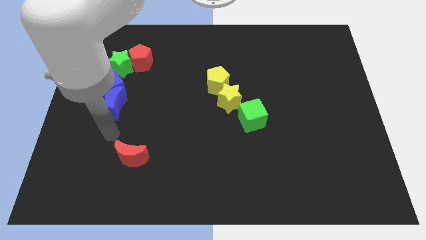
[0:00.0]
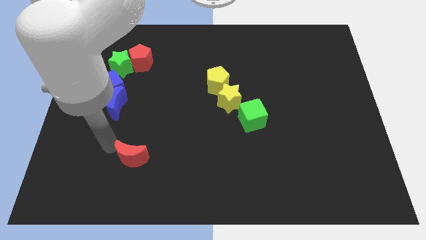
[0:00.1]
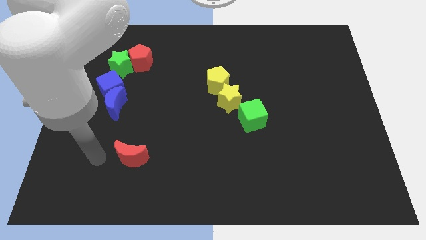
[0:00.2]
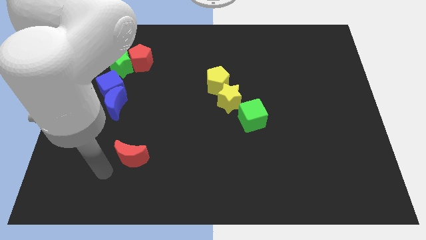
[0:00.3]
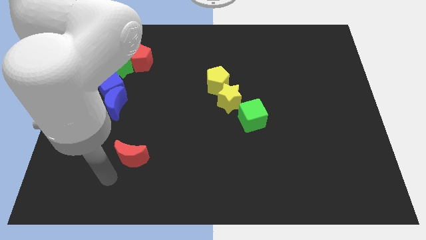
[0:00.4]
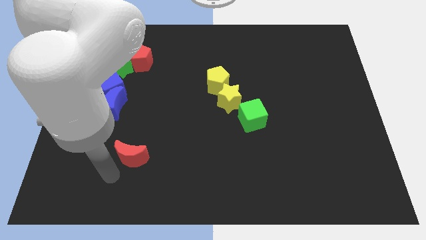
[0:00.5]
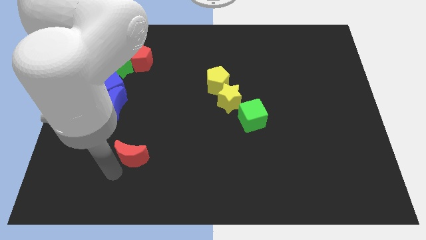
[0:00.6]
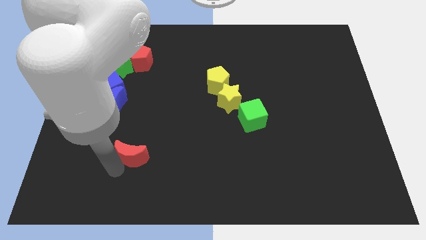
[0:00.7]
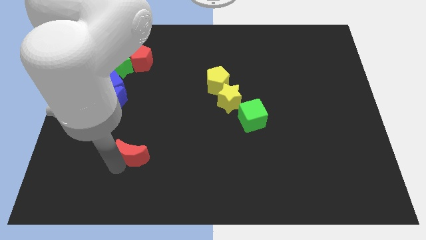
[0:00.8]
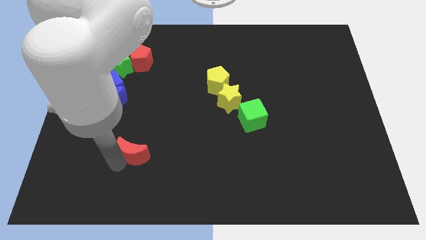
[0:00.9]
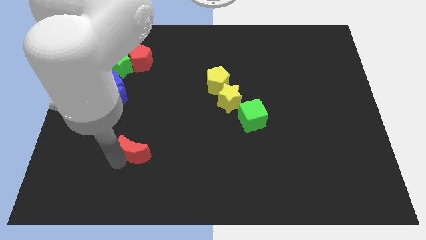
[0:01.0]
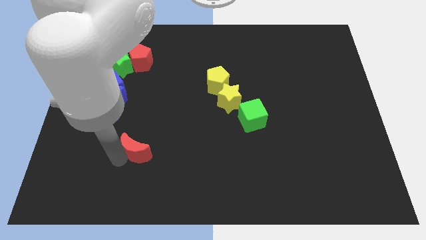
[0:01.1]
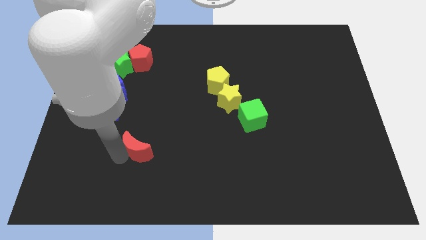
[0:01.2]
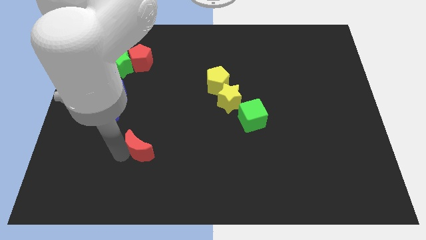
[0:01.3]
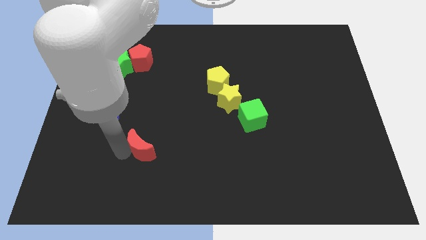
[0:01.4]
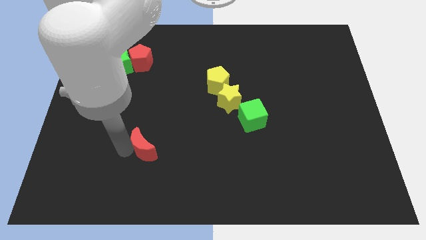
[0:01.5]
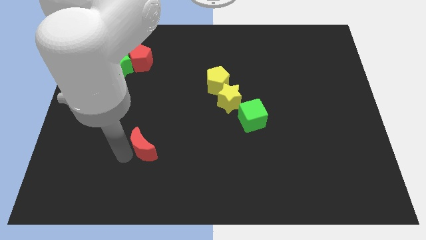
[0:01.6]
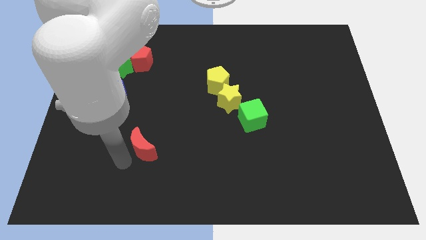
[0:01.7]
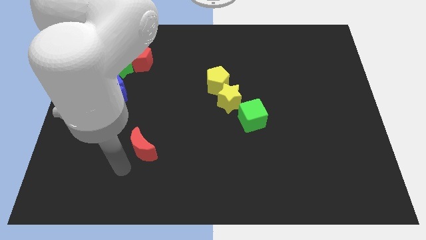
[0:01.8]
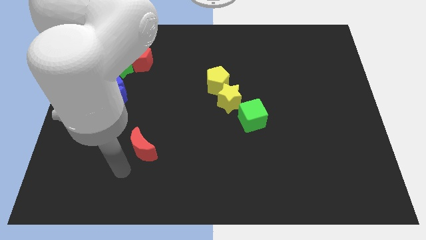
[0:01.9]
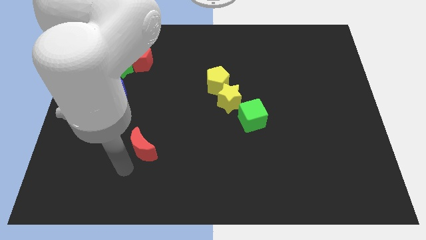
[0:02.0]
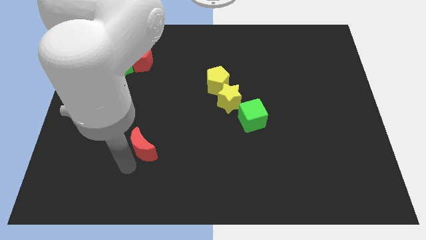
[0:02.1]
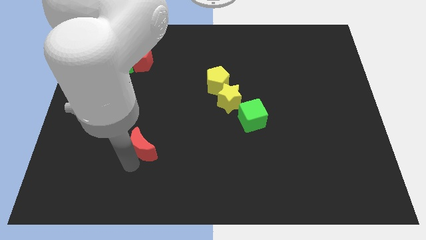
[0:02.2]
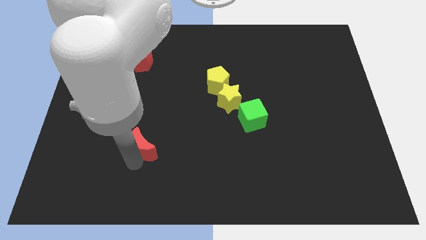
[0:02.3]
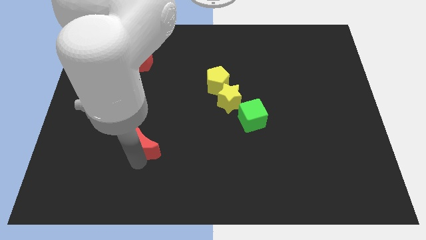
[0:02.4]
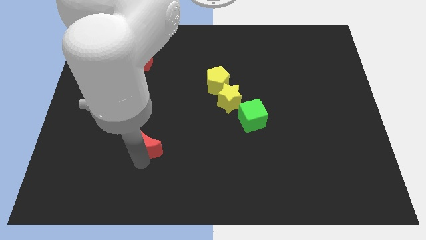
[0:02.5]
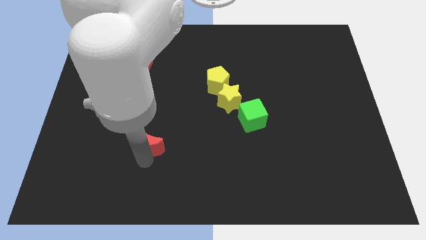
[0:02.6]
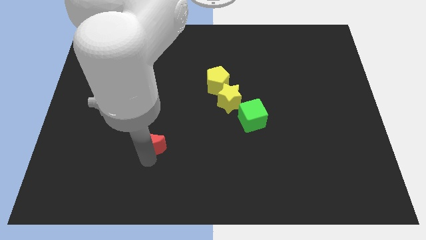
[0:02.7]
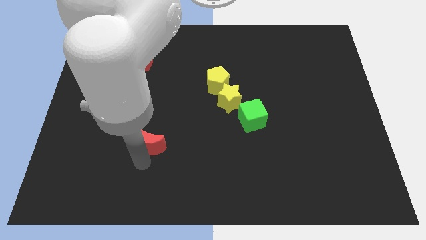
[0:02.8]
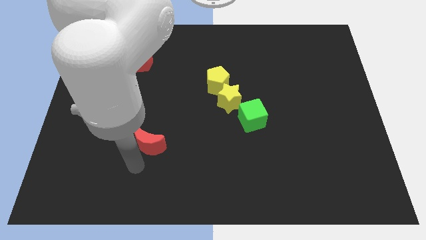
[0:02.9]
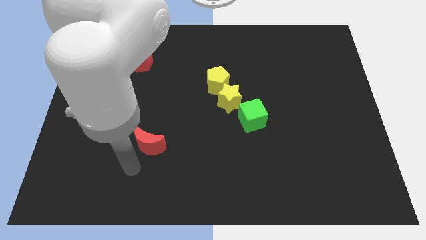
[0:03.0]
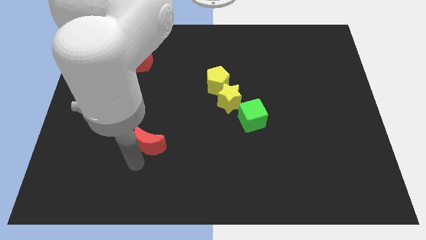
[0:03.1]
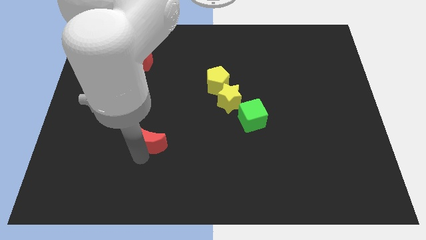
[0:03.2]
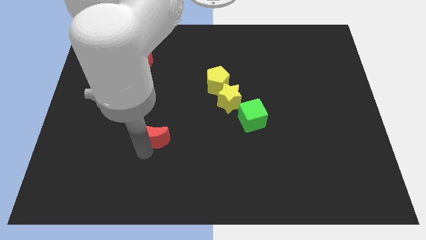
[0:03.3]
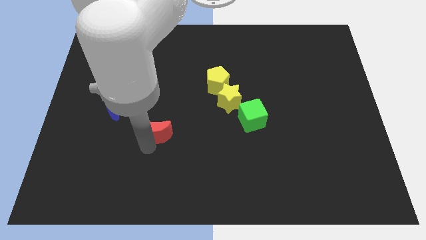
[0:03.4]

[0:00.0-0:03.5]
move the red moon diagonally up and right somewhat

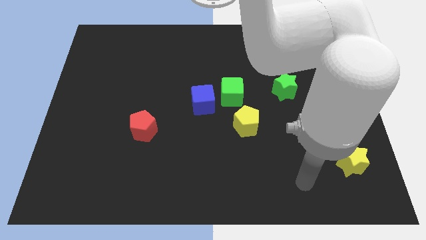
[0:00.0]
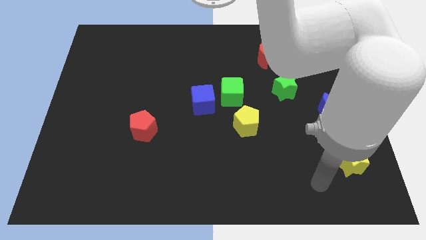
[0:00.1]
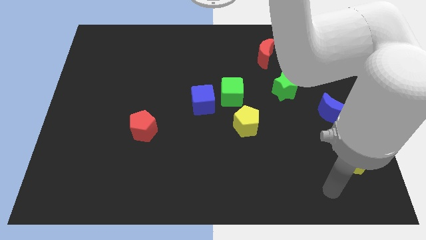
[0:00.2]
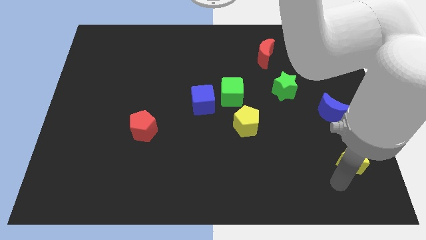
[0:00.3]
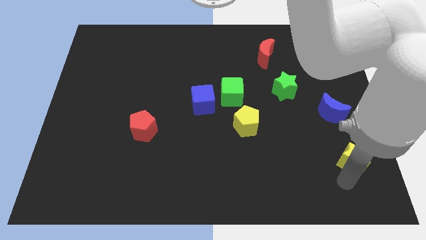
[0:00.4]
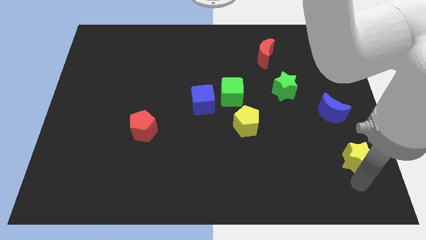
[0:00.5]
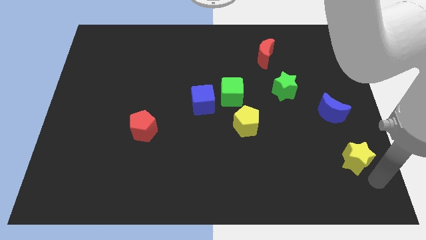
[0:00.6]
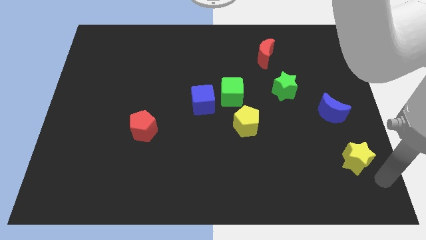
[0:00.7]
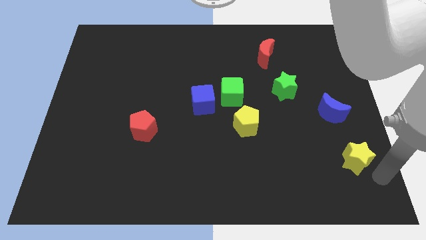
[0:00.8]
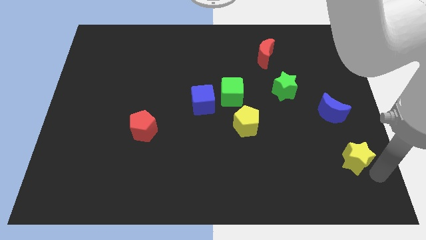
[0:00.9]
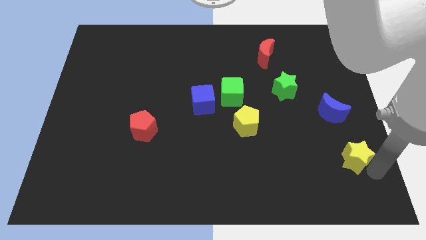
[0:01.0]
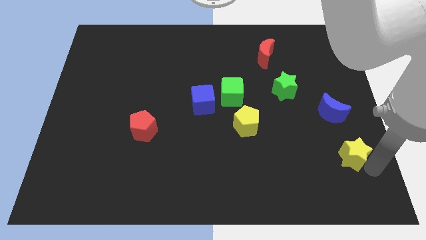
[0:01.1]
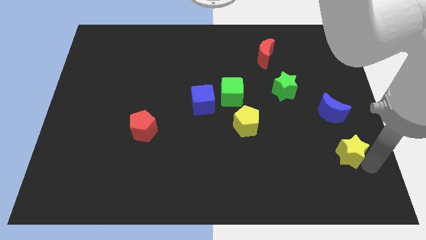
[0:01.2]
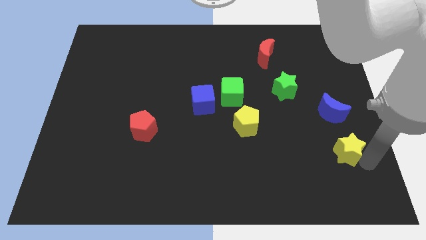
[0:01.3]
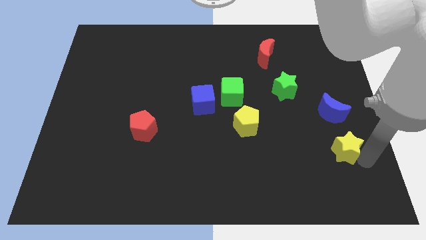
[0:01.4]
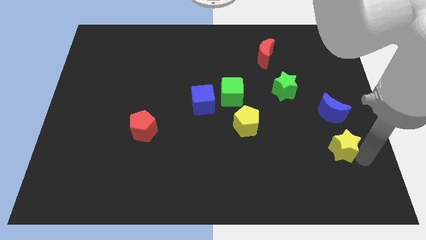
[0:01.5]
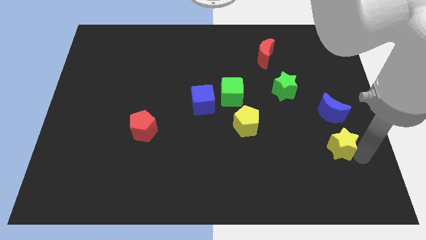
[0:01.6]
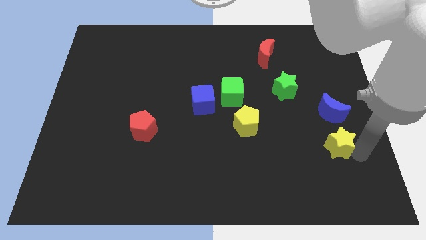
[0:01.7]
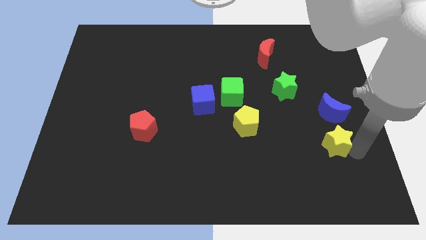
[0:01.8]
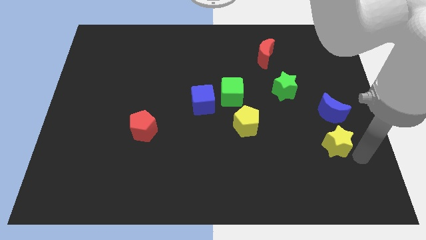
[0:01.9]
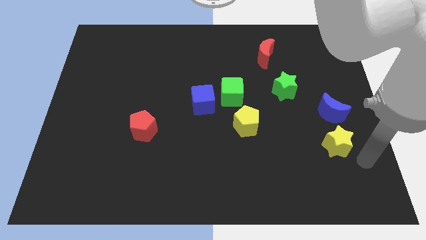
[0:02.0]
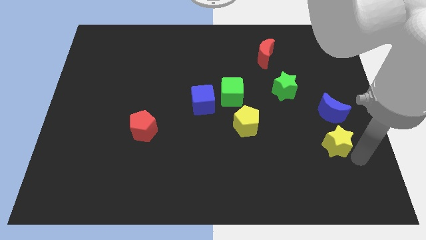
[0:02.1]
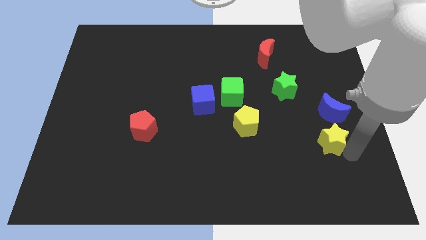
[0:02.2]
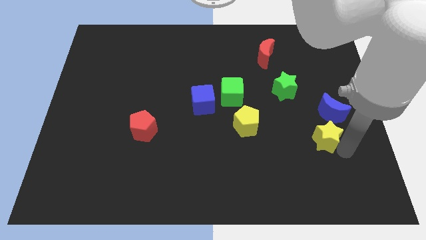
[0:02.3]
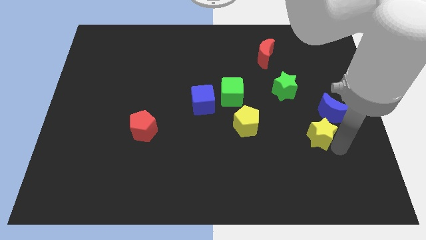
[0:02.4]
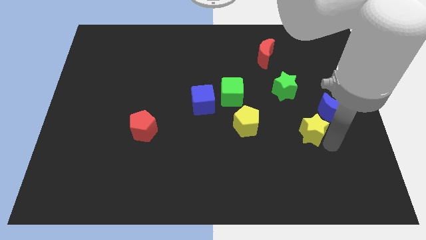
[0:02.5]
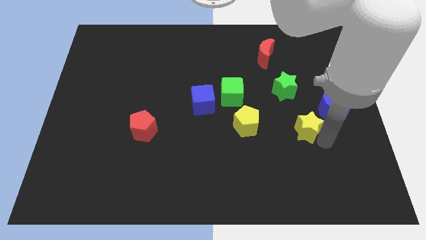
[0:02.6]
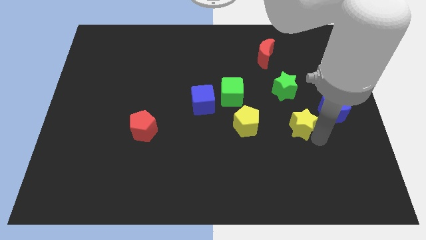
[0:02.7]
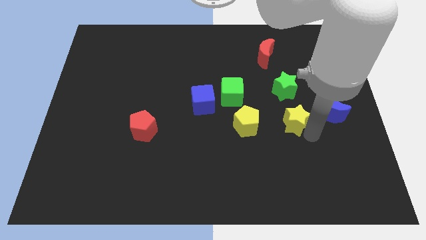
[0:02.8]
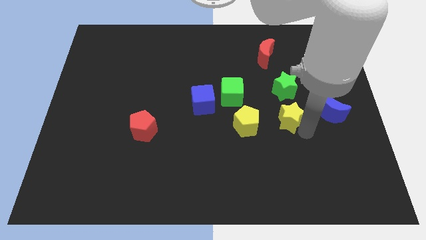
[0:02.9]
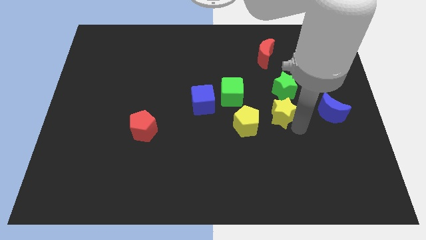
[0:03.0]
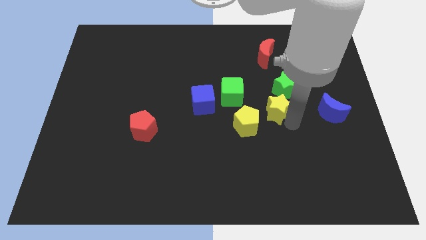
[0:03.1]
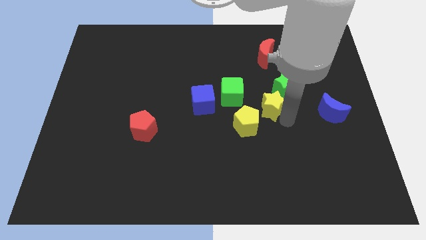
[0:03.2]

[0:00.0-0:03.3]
move the yellow star upwards and left

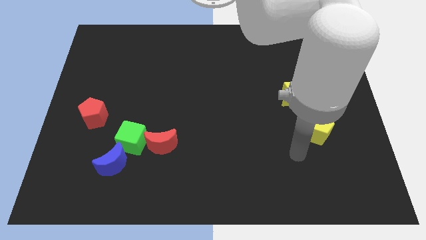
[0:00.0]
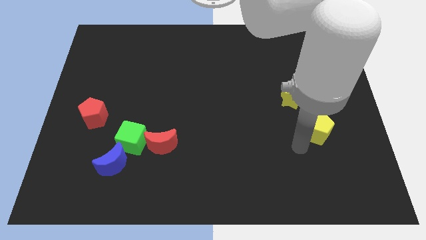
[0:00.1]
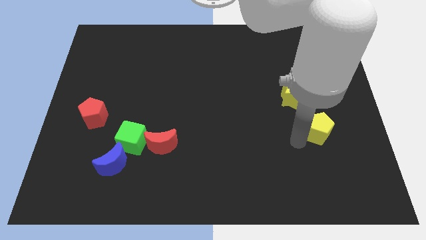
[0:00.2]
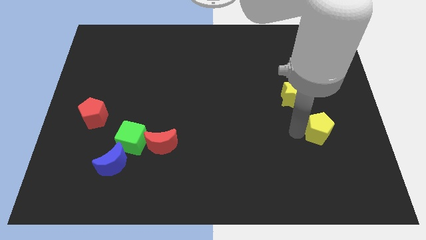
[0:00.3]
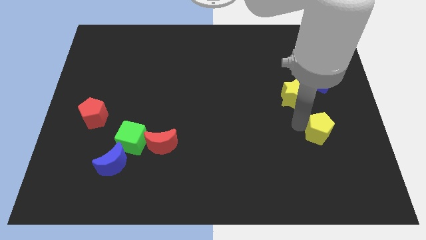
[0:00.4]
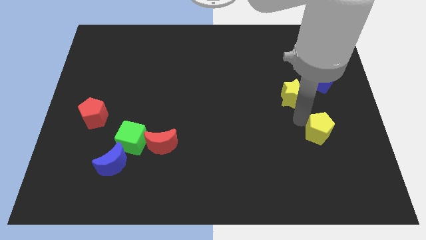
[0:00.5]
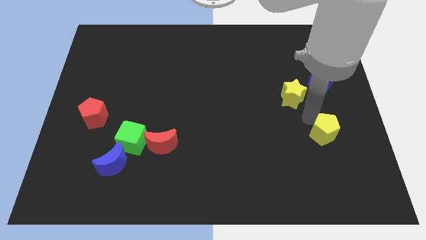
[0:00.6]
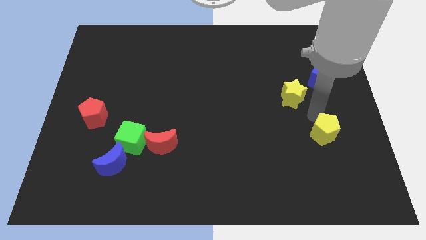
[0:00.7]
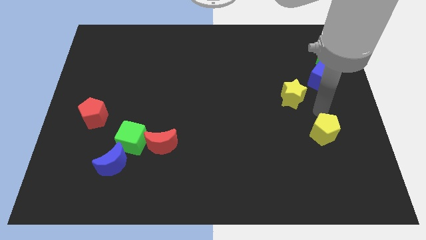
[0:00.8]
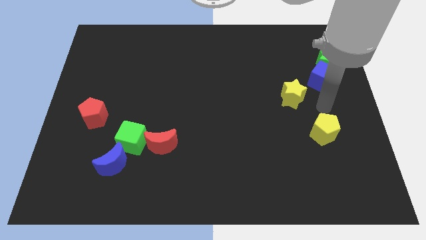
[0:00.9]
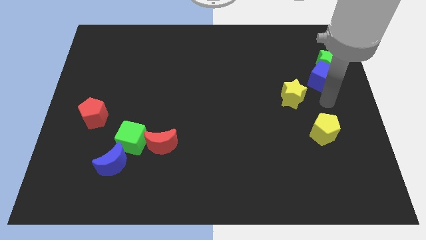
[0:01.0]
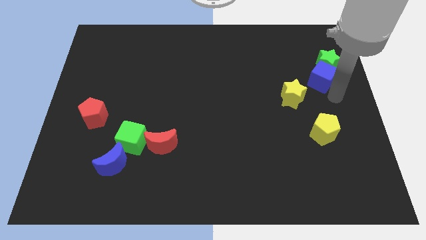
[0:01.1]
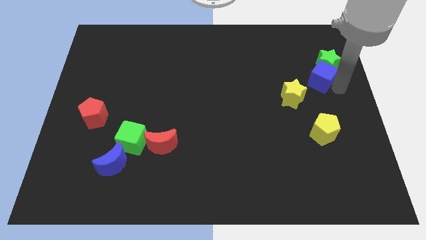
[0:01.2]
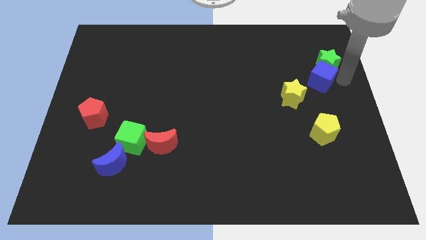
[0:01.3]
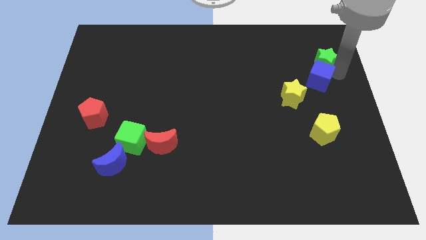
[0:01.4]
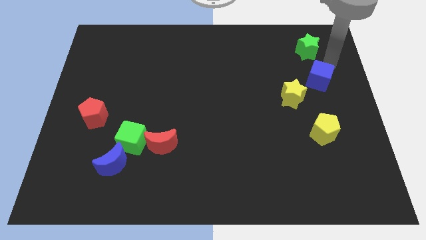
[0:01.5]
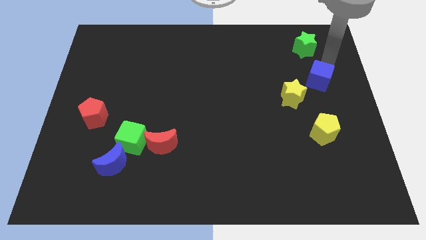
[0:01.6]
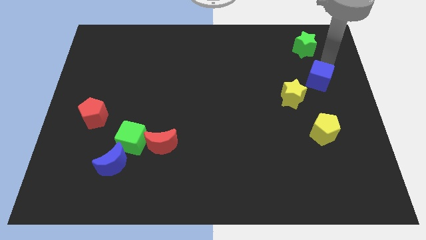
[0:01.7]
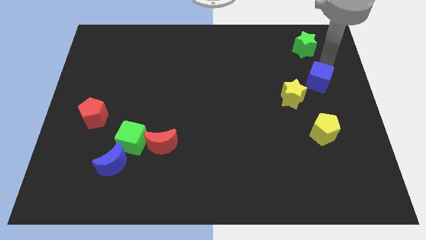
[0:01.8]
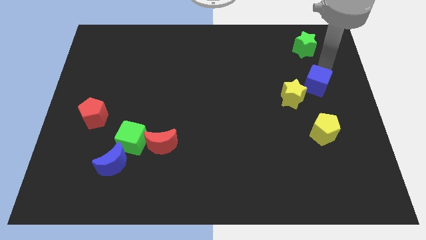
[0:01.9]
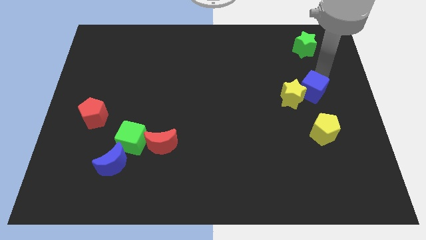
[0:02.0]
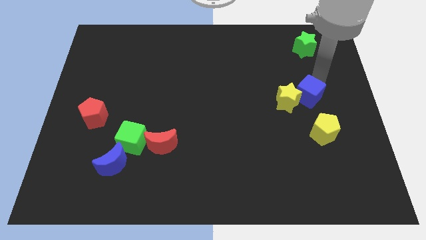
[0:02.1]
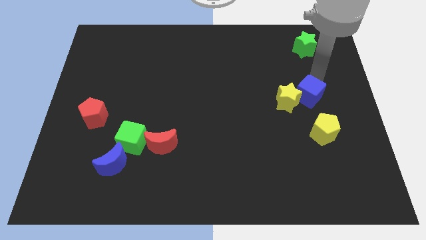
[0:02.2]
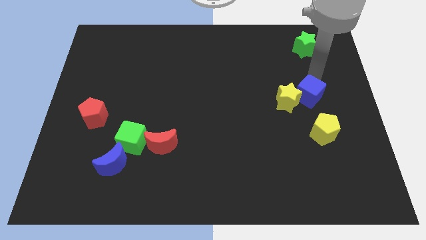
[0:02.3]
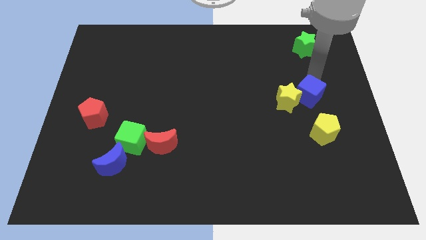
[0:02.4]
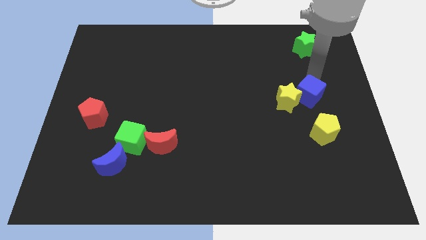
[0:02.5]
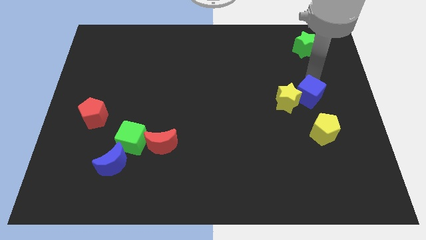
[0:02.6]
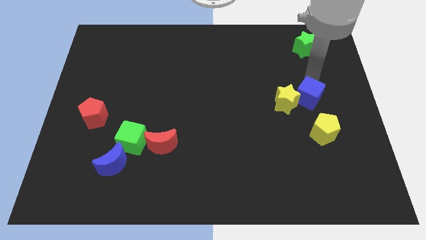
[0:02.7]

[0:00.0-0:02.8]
move the blue cube down and then left a little
